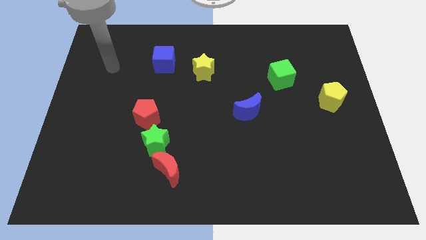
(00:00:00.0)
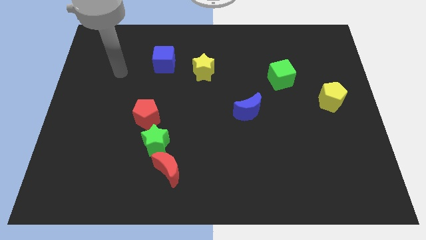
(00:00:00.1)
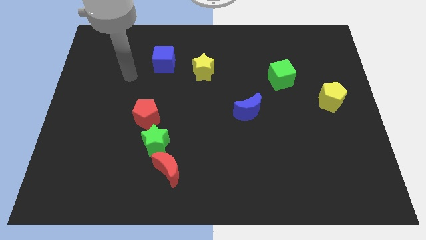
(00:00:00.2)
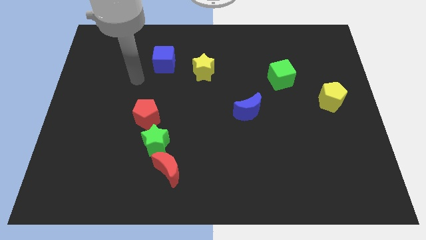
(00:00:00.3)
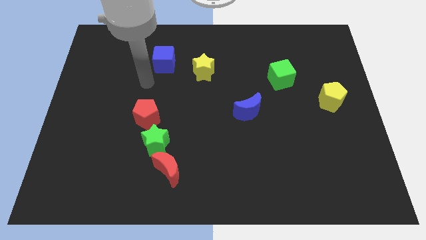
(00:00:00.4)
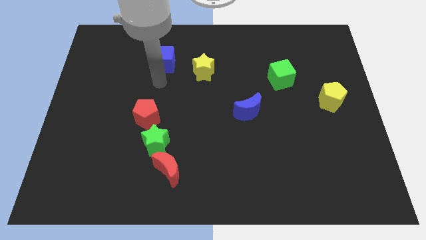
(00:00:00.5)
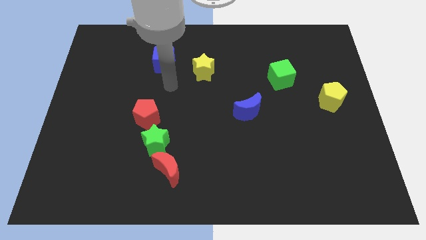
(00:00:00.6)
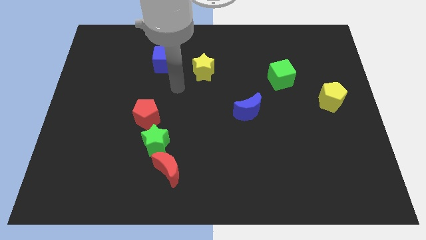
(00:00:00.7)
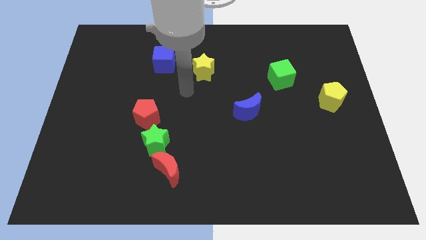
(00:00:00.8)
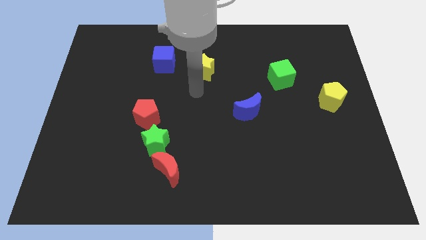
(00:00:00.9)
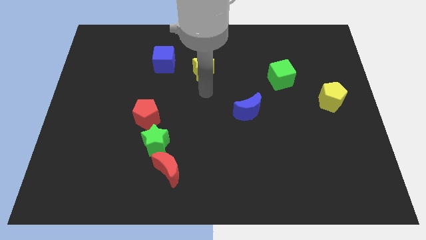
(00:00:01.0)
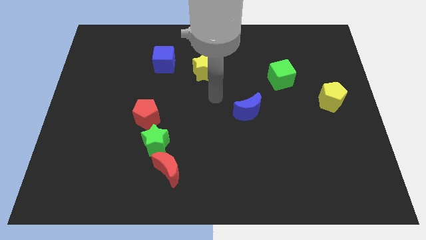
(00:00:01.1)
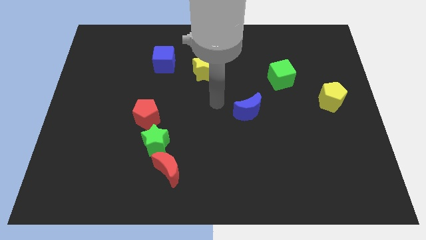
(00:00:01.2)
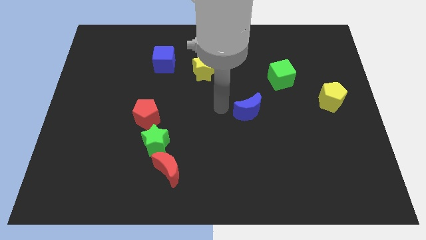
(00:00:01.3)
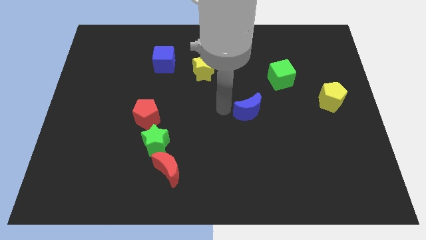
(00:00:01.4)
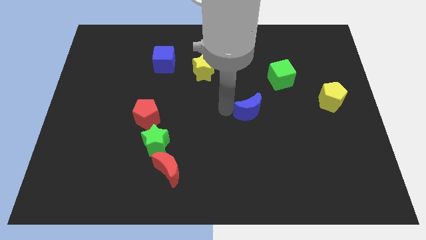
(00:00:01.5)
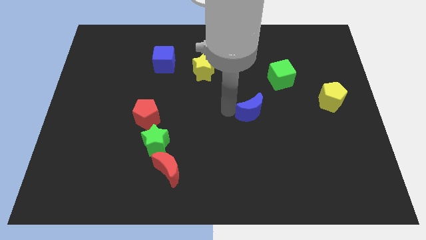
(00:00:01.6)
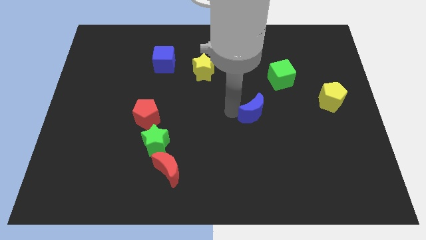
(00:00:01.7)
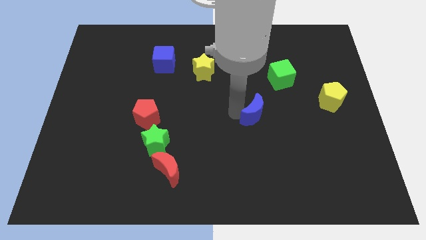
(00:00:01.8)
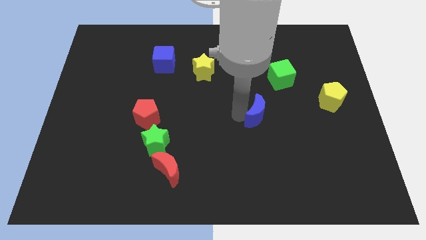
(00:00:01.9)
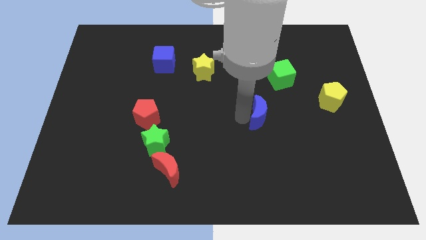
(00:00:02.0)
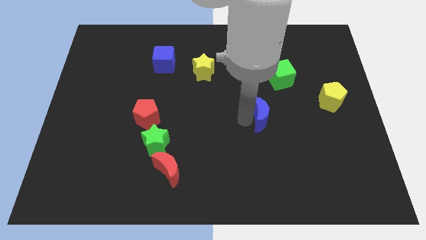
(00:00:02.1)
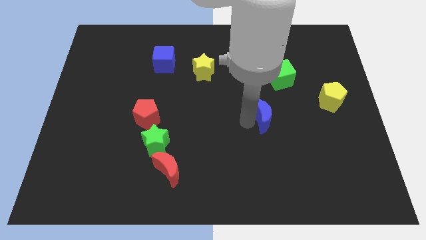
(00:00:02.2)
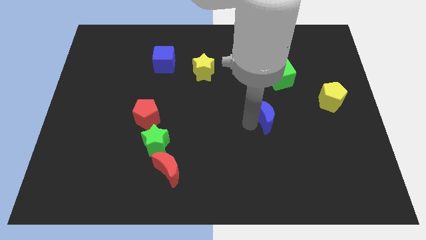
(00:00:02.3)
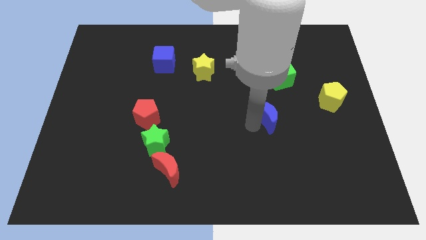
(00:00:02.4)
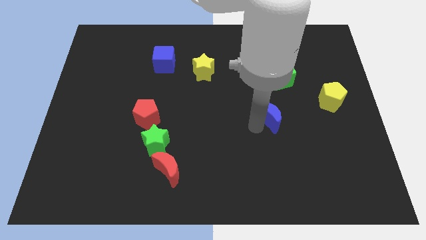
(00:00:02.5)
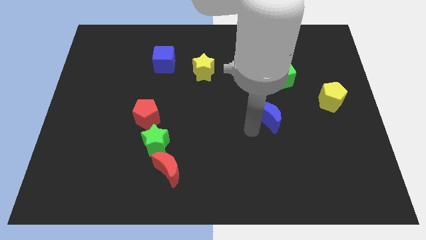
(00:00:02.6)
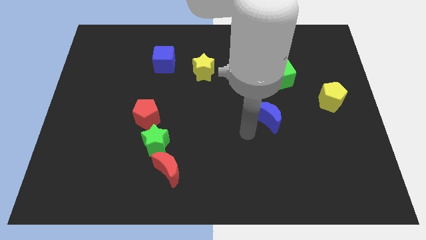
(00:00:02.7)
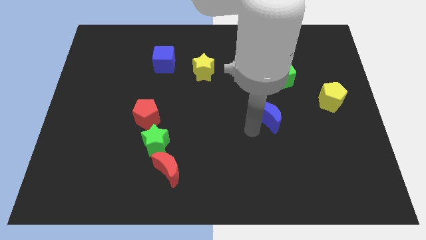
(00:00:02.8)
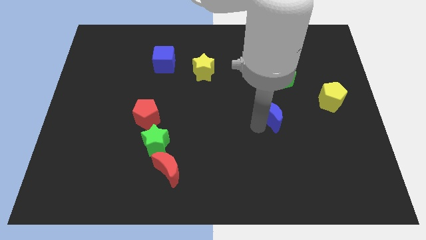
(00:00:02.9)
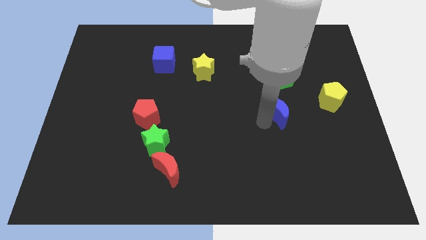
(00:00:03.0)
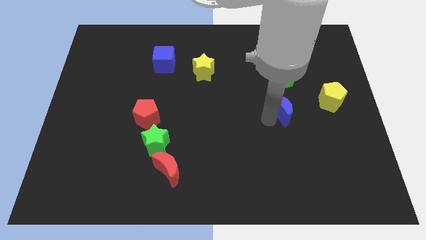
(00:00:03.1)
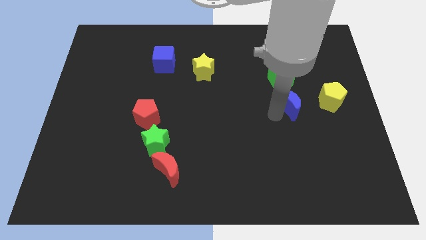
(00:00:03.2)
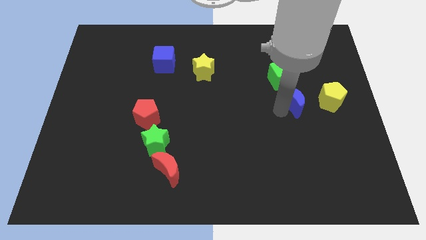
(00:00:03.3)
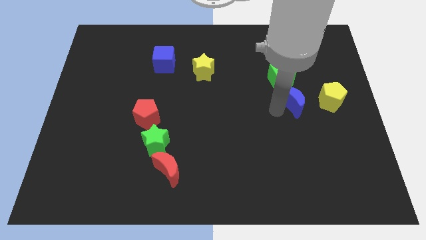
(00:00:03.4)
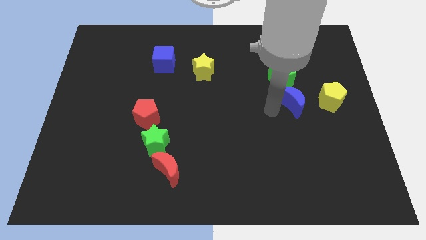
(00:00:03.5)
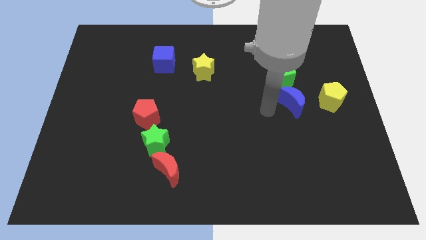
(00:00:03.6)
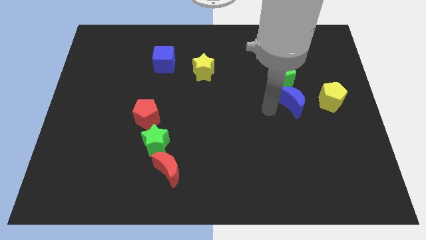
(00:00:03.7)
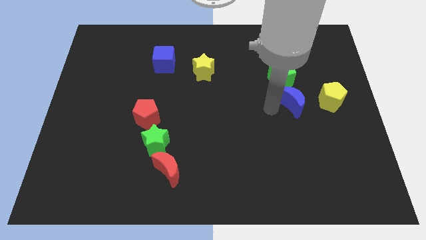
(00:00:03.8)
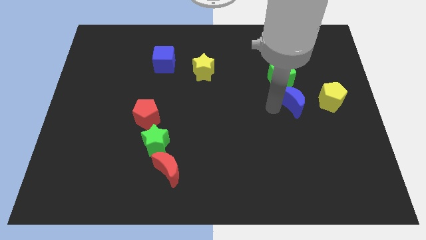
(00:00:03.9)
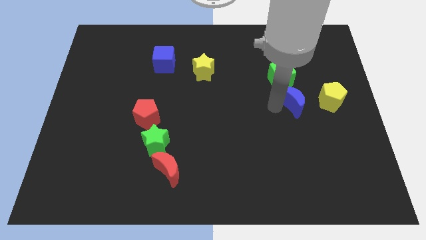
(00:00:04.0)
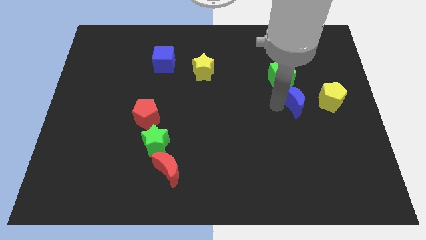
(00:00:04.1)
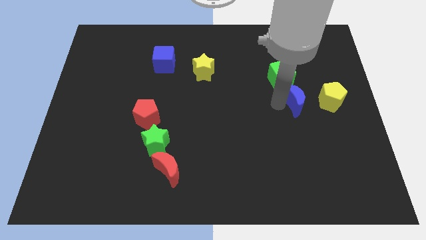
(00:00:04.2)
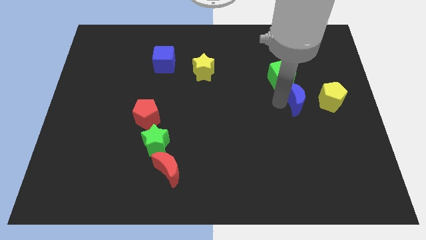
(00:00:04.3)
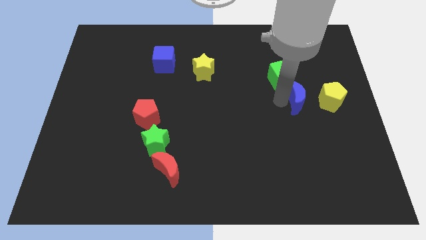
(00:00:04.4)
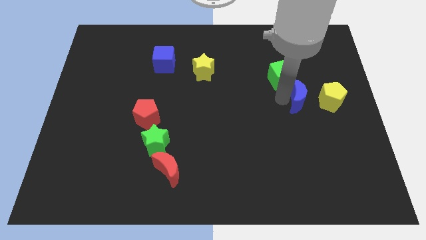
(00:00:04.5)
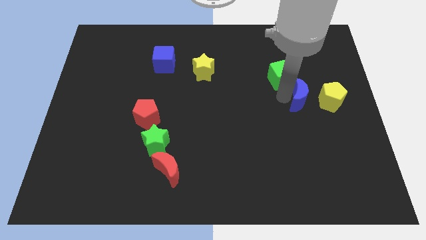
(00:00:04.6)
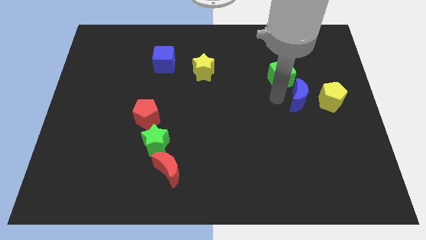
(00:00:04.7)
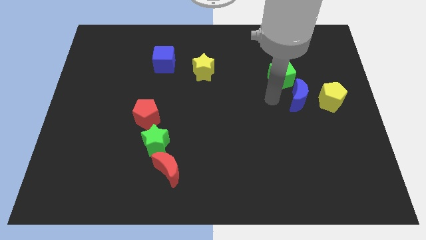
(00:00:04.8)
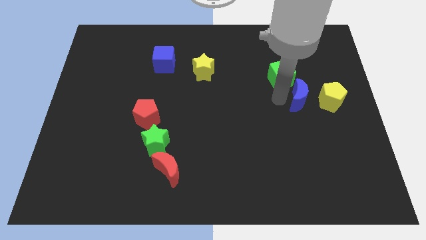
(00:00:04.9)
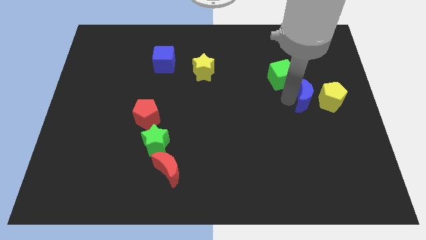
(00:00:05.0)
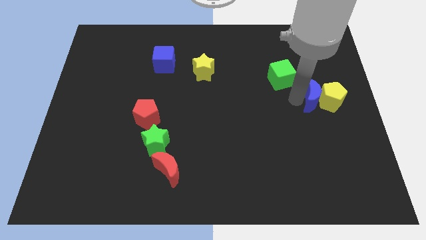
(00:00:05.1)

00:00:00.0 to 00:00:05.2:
put the blue moon next to the yellow pentagon
